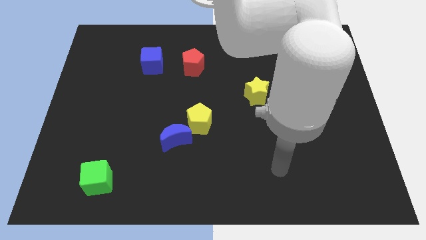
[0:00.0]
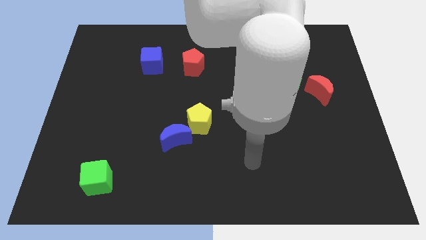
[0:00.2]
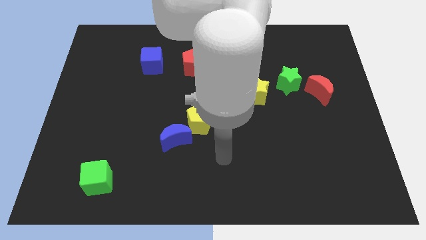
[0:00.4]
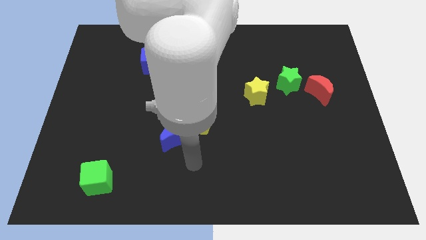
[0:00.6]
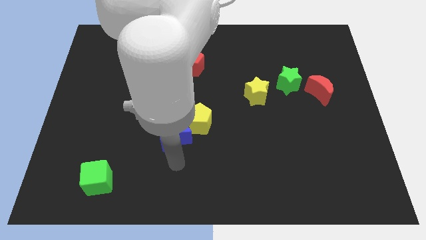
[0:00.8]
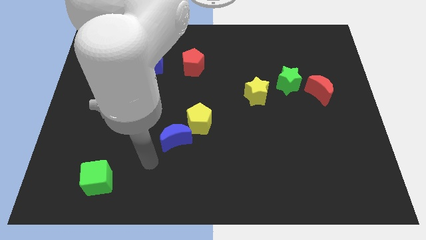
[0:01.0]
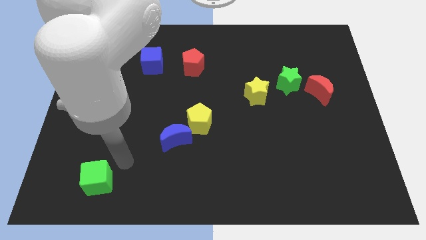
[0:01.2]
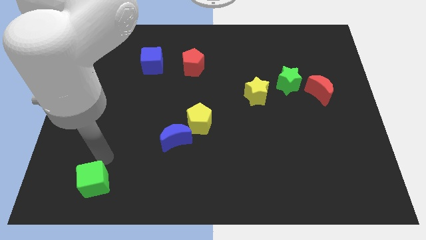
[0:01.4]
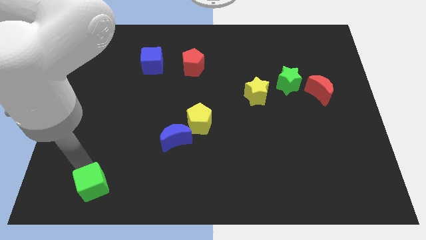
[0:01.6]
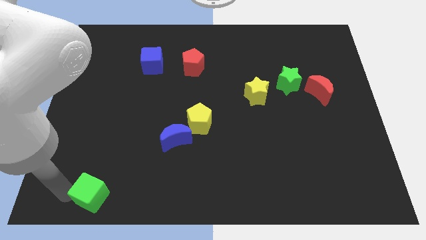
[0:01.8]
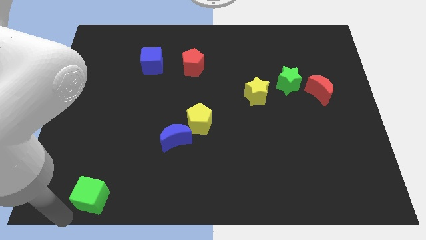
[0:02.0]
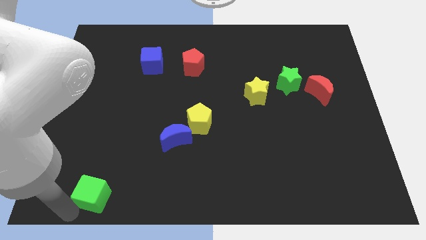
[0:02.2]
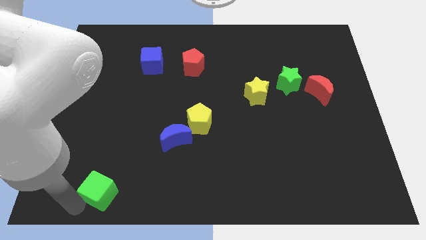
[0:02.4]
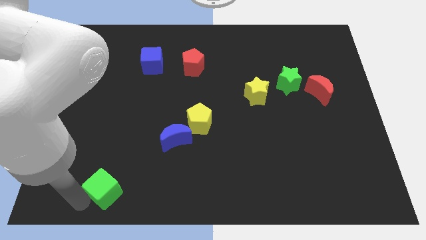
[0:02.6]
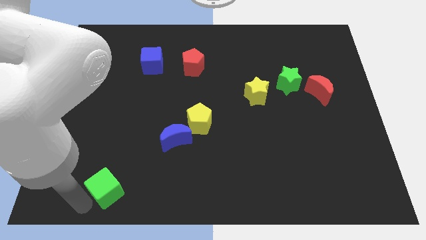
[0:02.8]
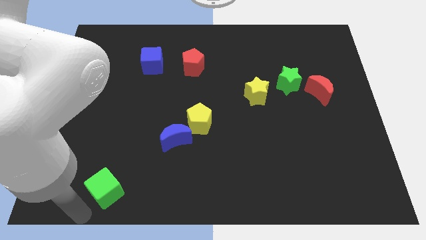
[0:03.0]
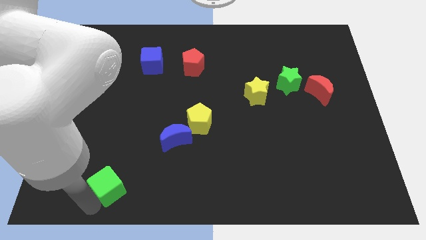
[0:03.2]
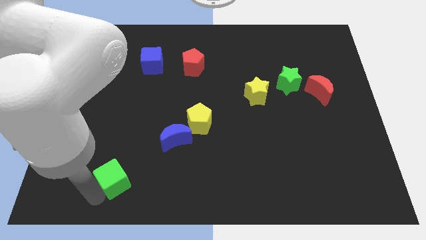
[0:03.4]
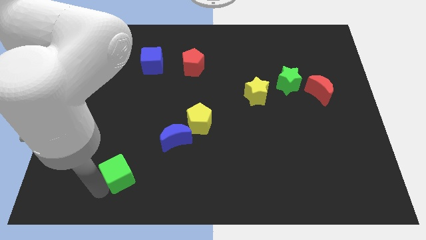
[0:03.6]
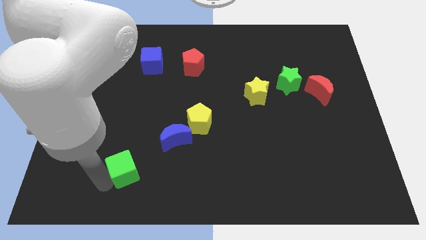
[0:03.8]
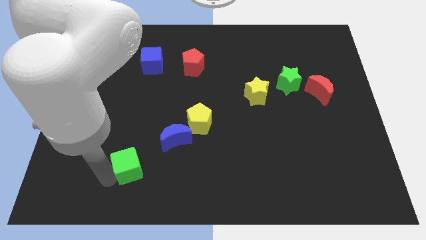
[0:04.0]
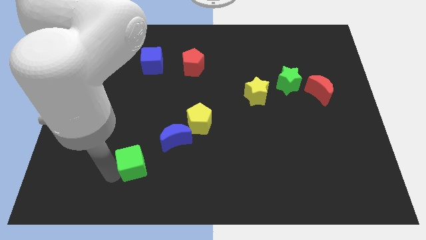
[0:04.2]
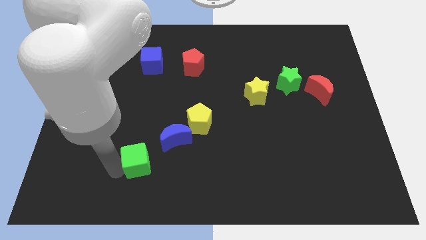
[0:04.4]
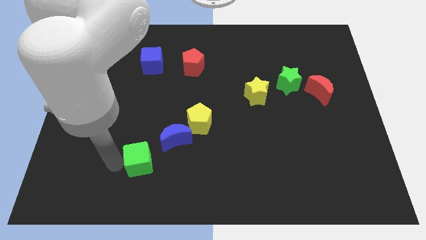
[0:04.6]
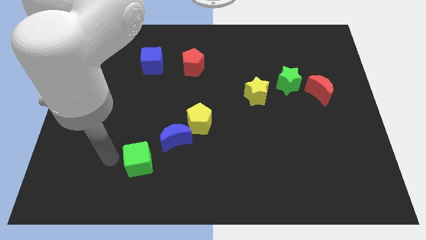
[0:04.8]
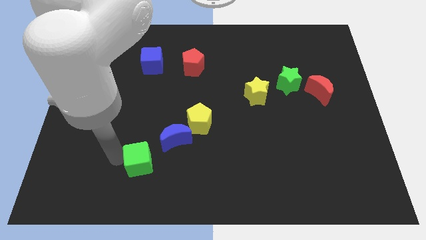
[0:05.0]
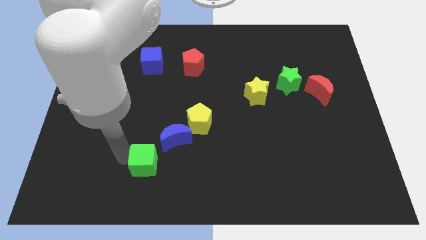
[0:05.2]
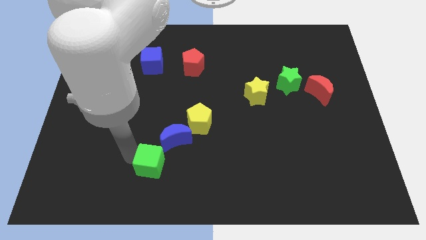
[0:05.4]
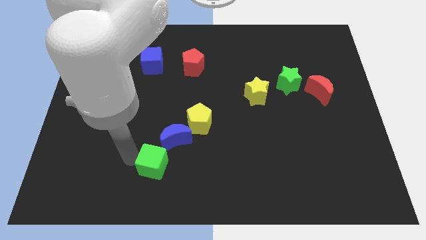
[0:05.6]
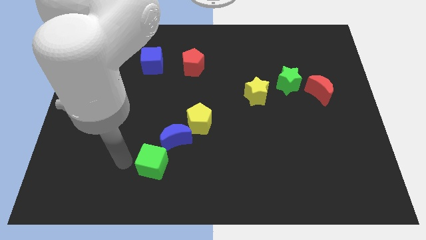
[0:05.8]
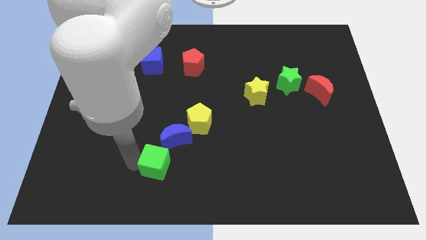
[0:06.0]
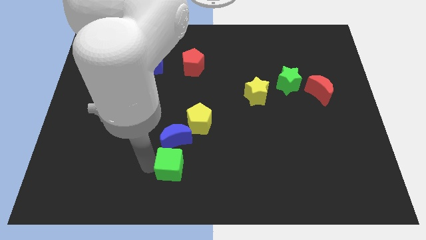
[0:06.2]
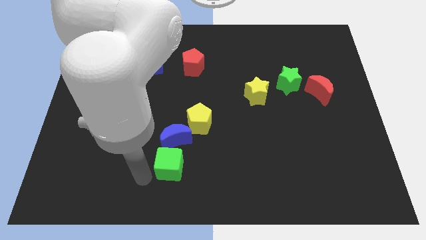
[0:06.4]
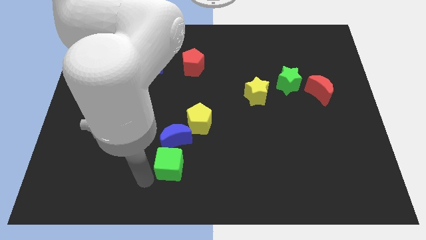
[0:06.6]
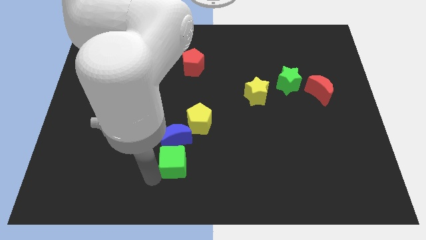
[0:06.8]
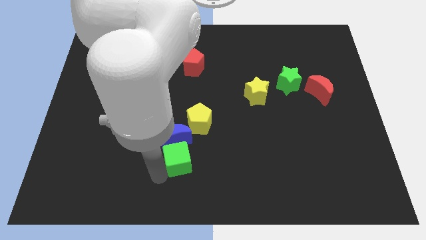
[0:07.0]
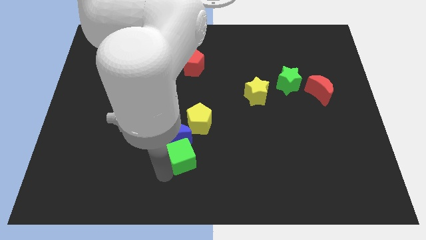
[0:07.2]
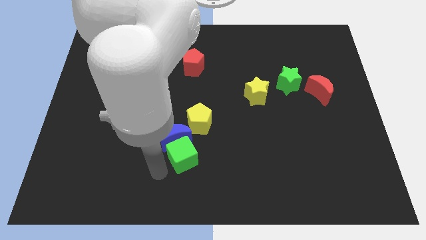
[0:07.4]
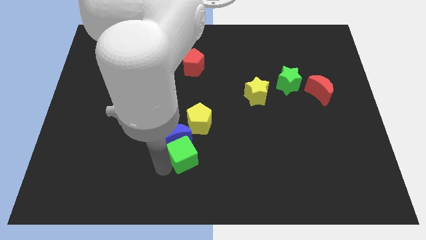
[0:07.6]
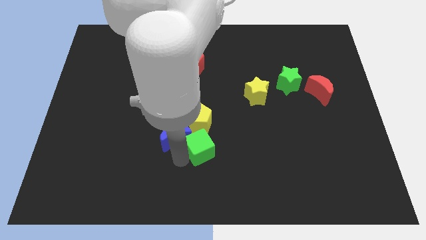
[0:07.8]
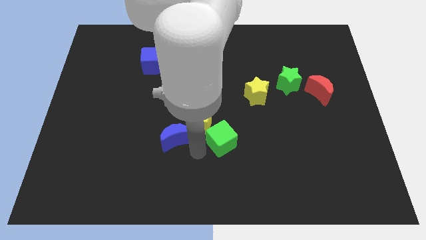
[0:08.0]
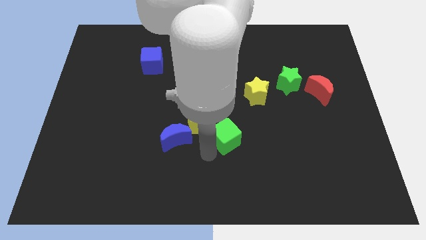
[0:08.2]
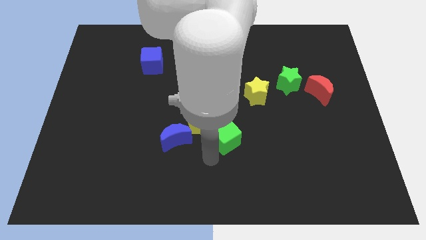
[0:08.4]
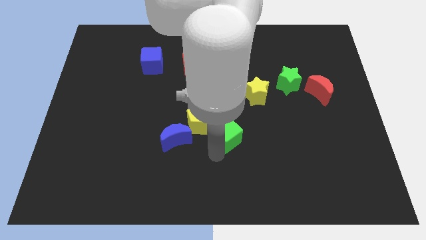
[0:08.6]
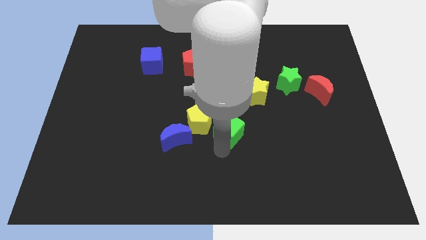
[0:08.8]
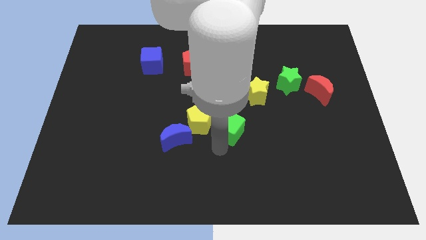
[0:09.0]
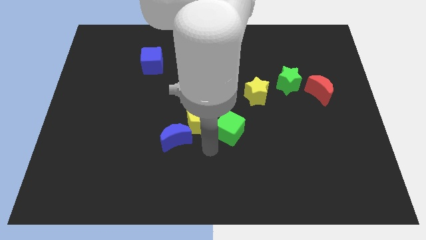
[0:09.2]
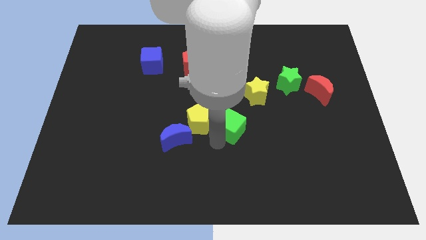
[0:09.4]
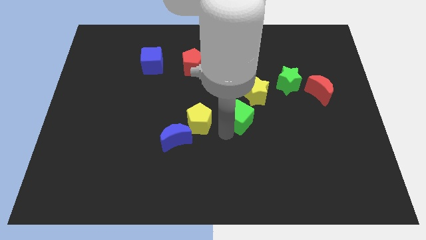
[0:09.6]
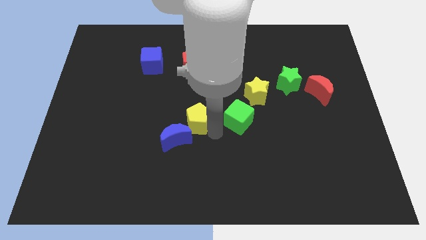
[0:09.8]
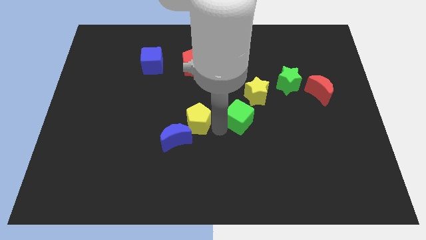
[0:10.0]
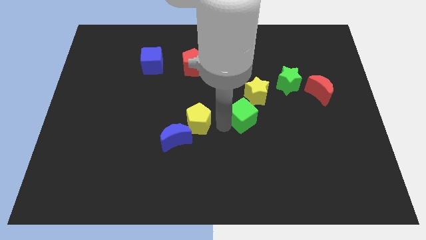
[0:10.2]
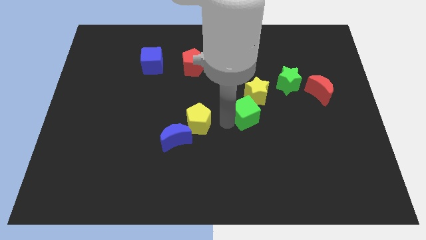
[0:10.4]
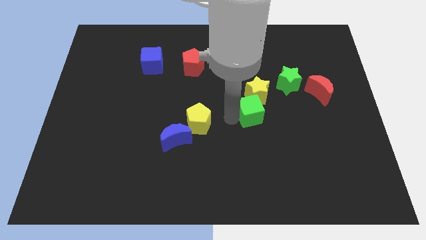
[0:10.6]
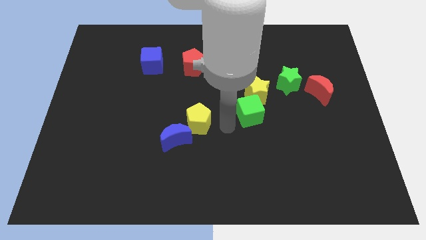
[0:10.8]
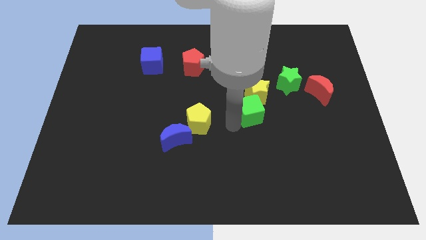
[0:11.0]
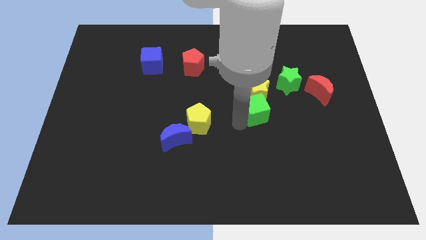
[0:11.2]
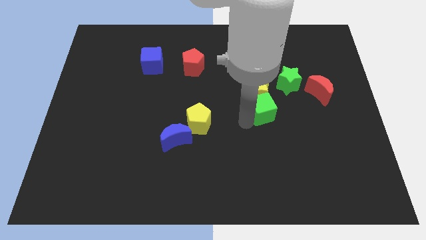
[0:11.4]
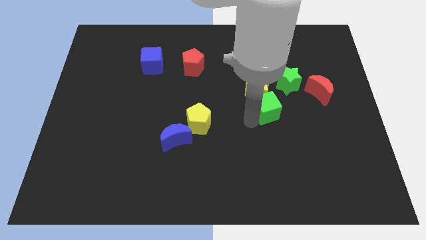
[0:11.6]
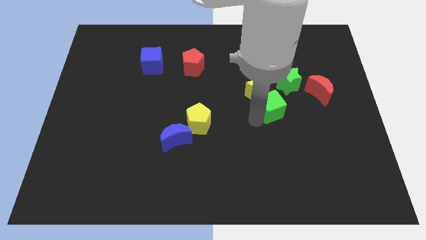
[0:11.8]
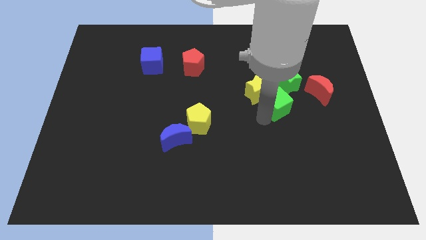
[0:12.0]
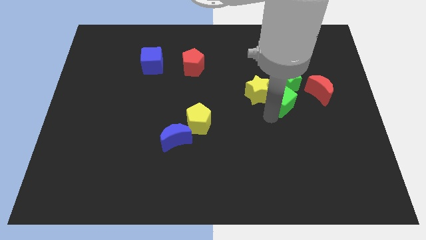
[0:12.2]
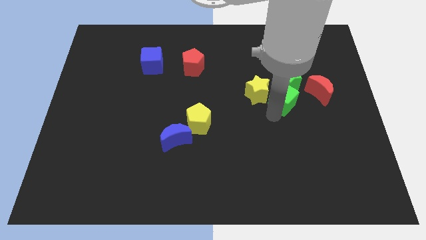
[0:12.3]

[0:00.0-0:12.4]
push the green cube close to the green star
